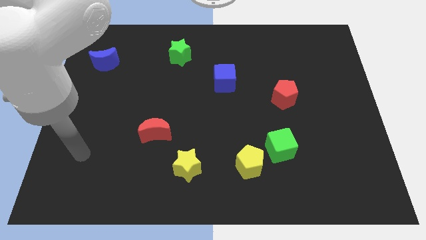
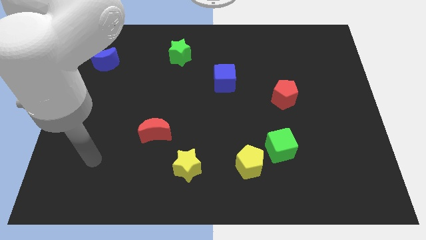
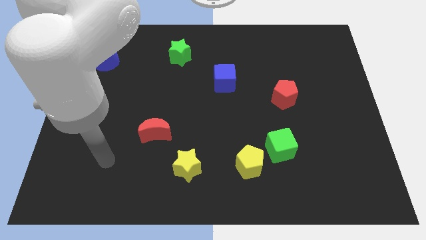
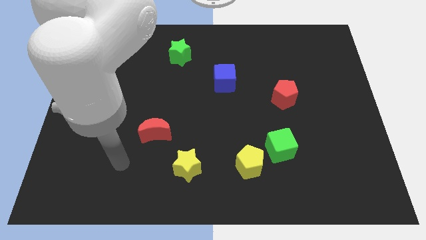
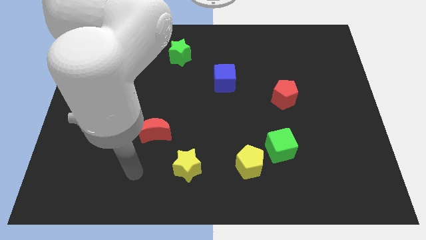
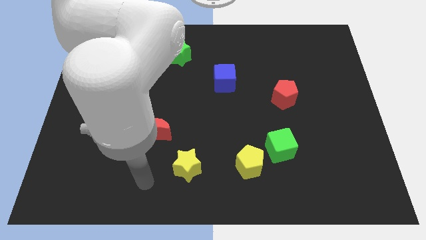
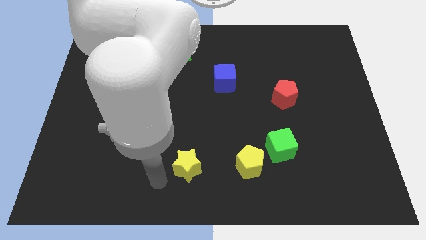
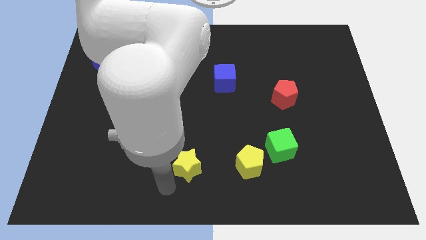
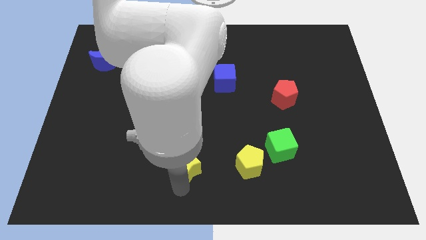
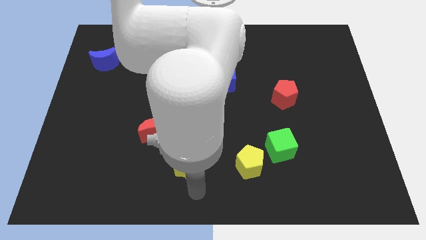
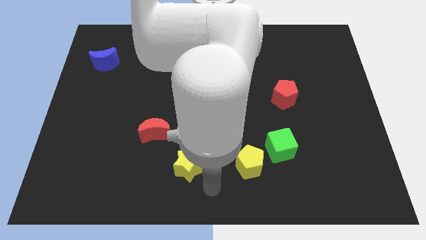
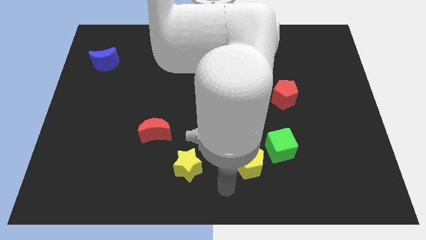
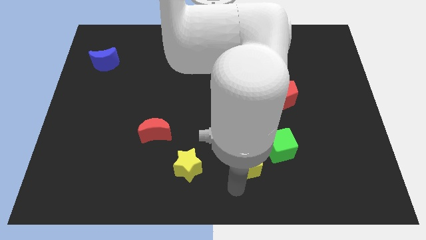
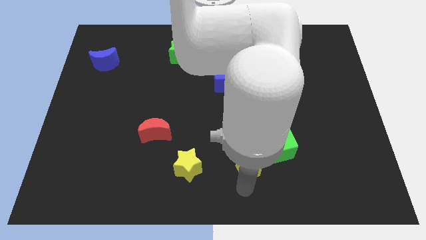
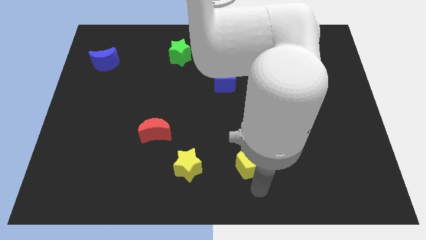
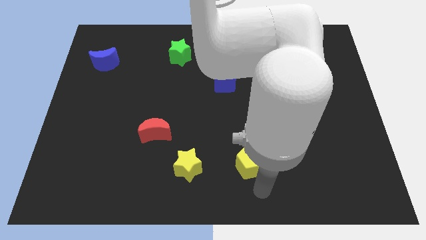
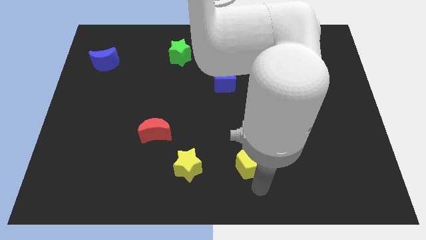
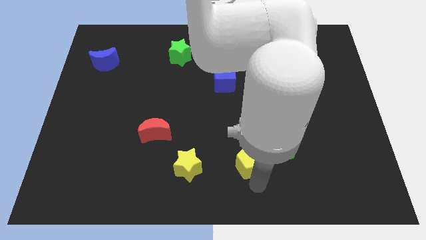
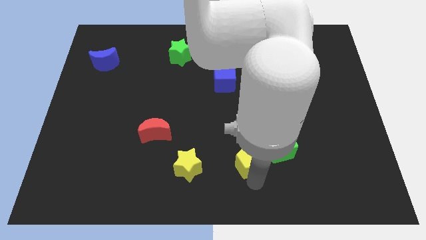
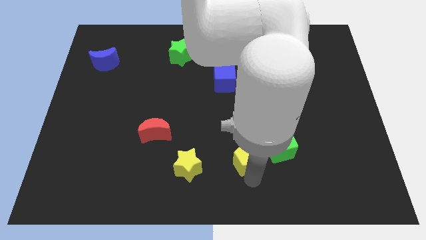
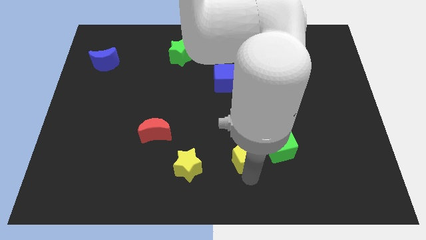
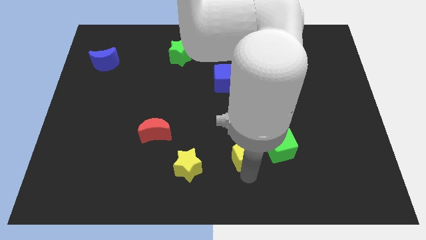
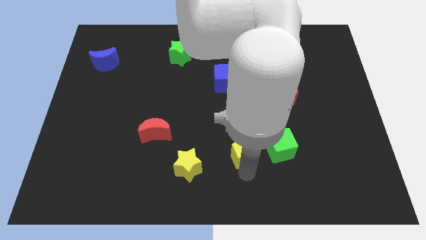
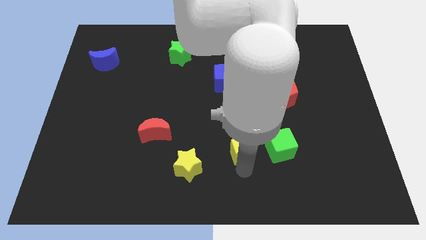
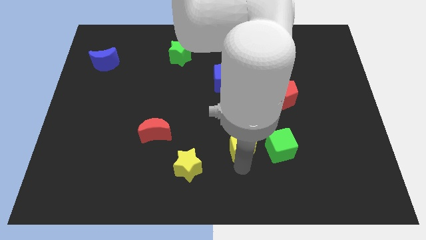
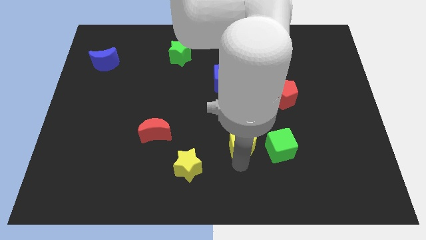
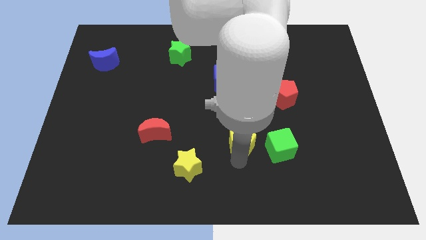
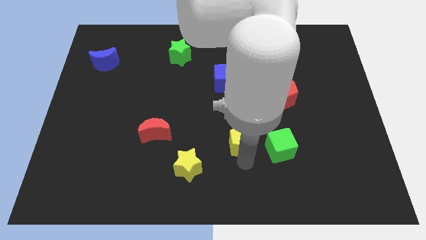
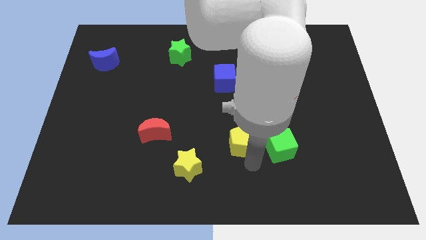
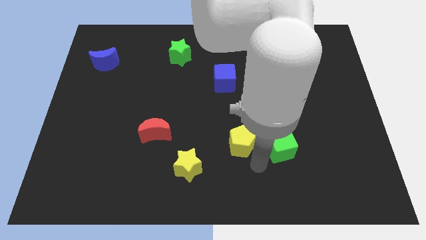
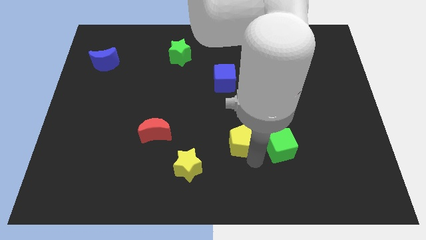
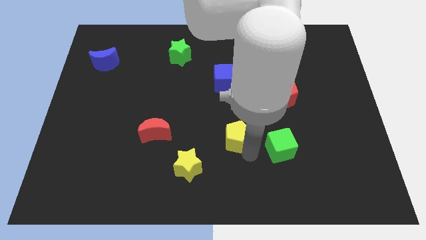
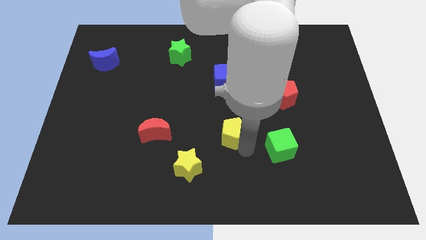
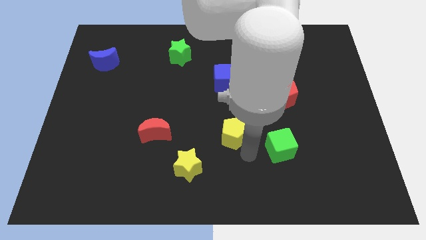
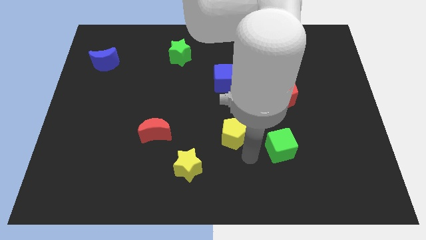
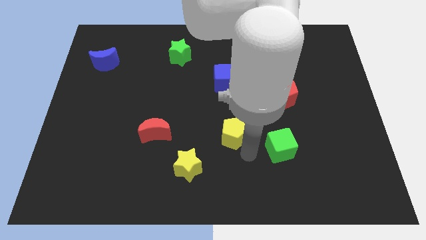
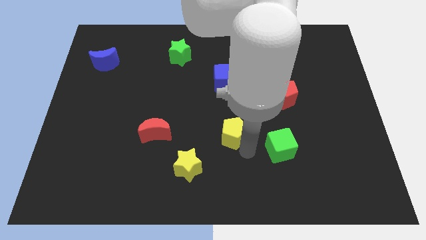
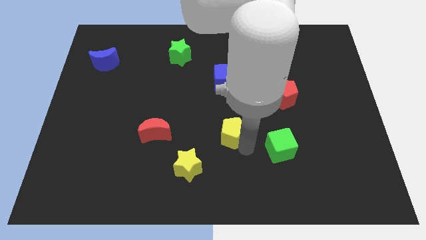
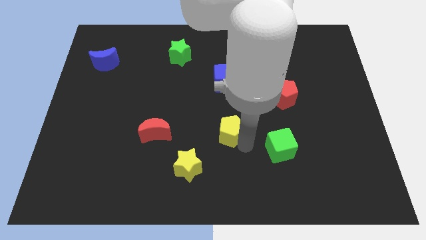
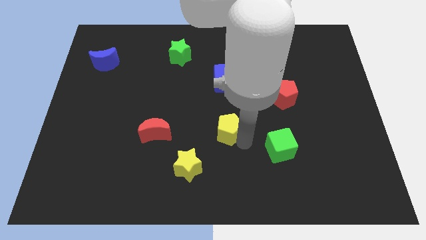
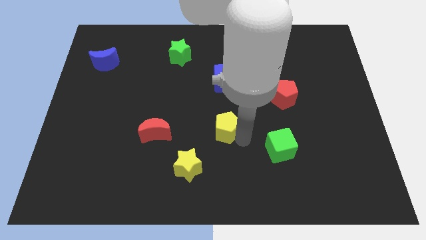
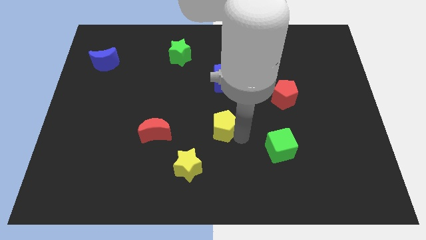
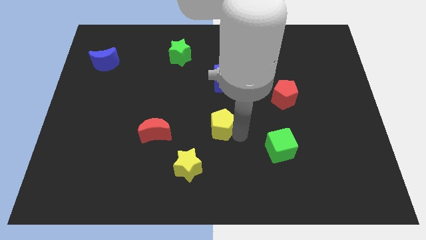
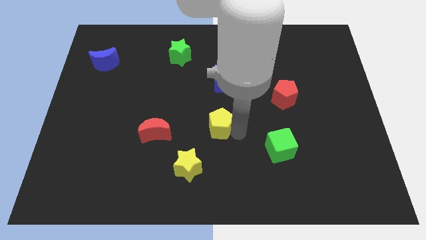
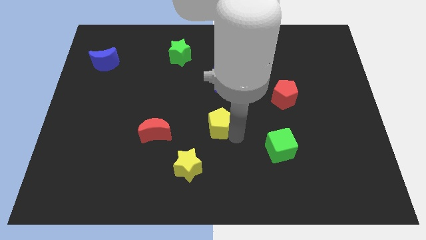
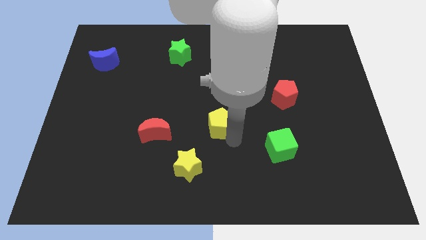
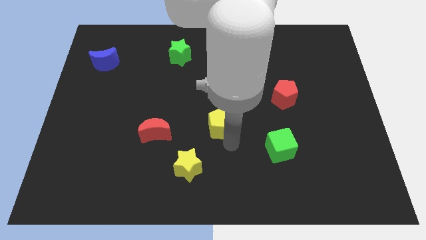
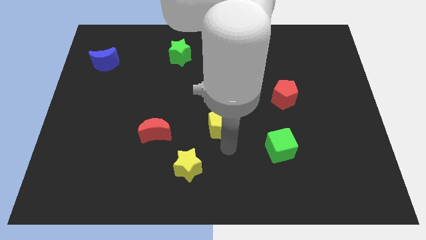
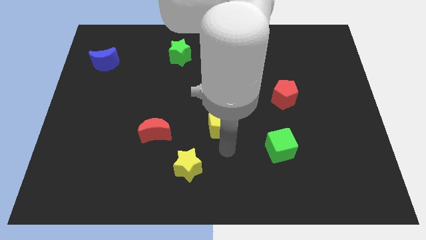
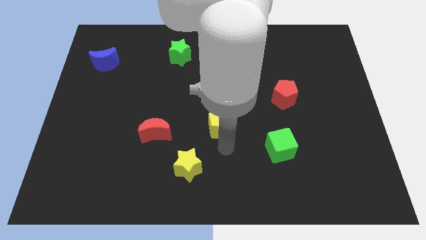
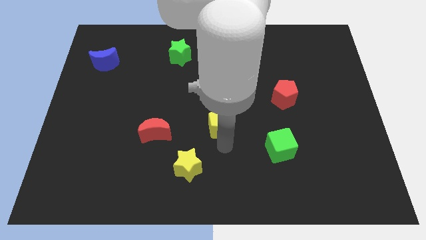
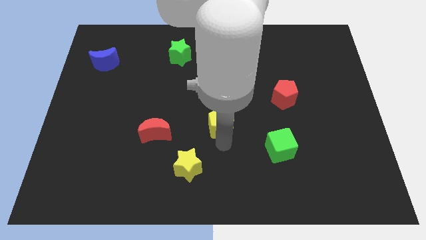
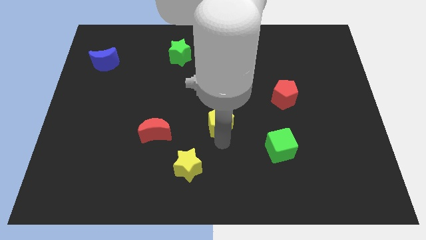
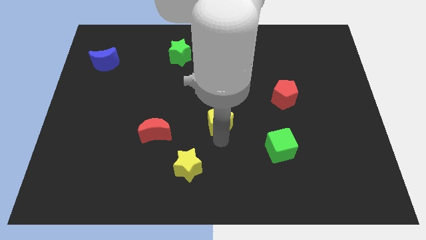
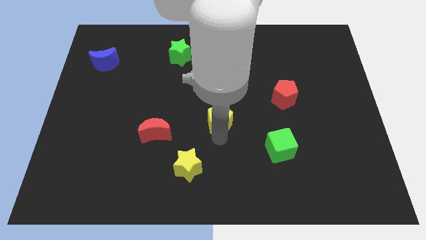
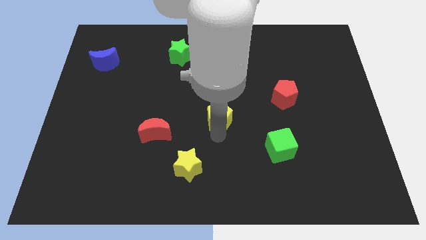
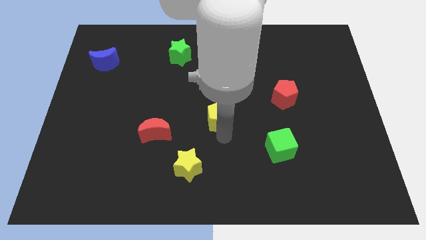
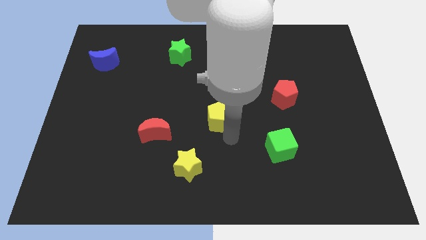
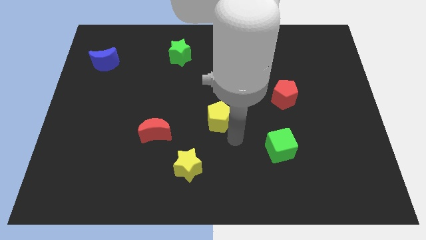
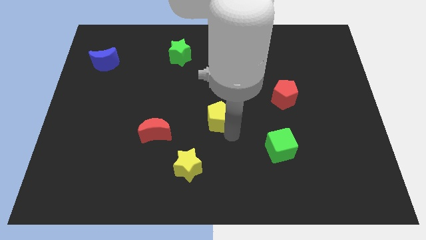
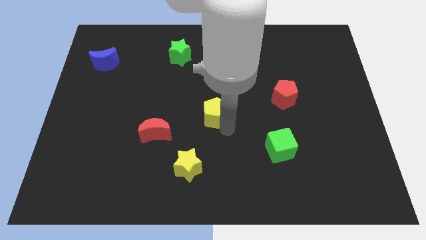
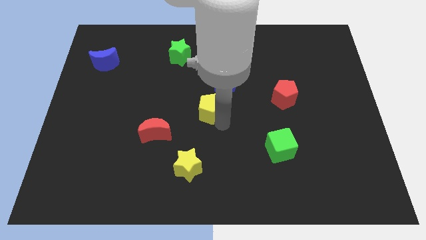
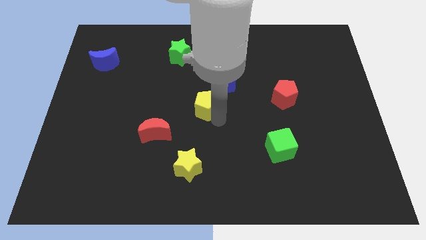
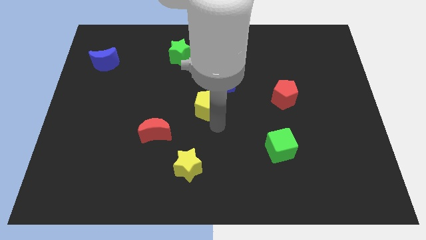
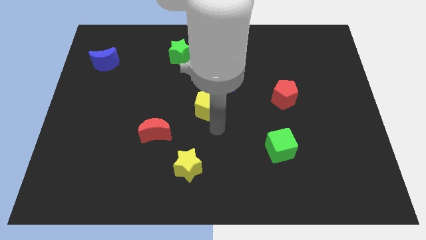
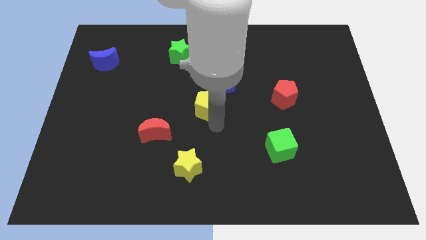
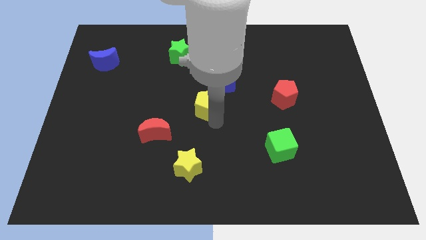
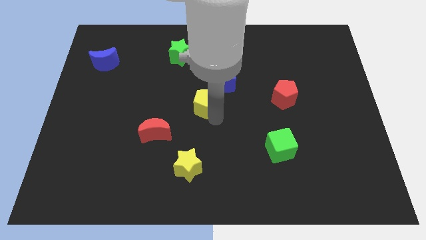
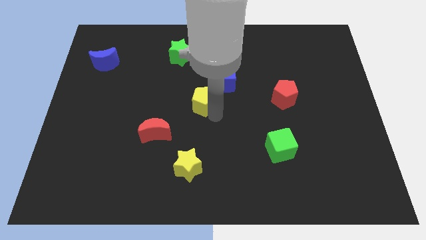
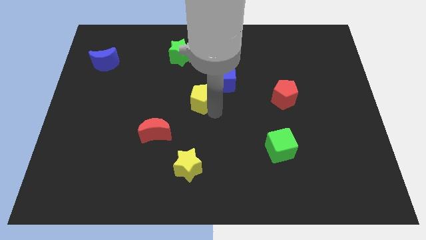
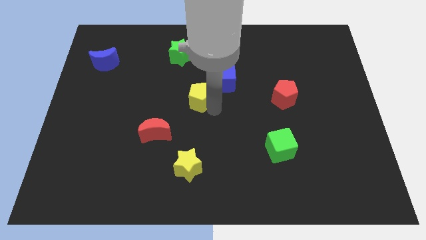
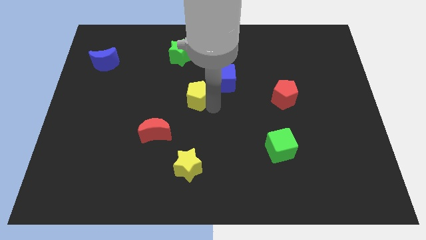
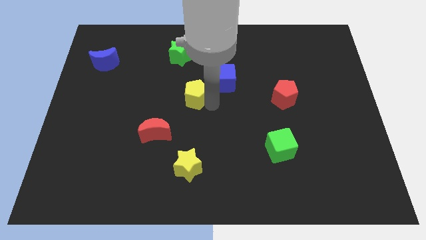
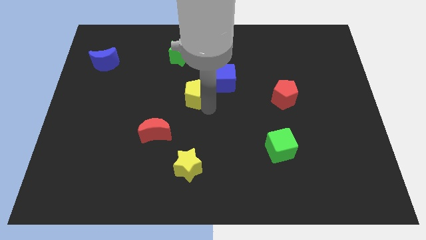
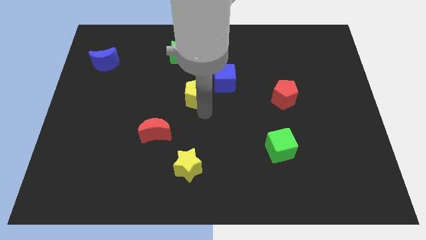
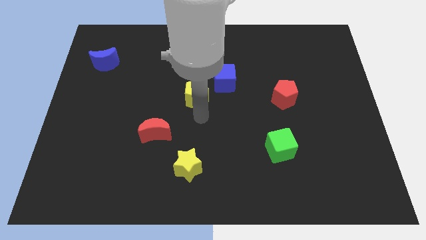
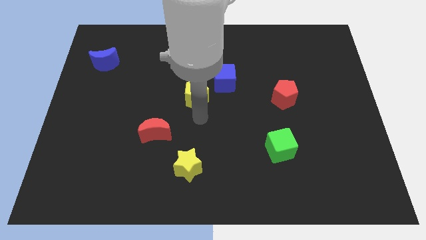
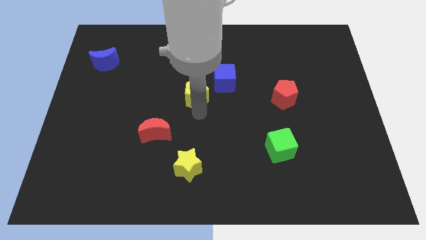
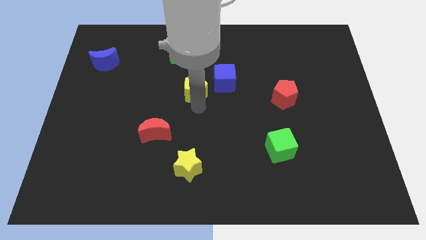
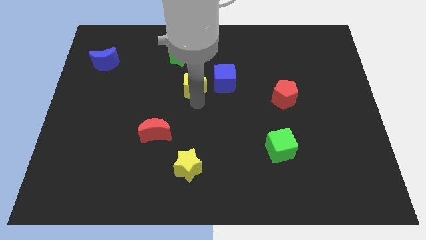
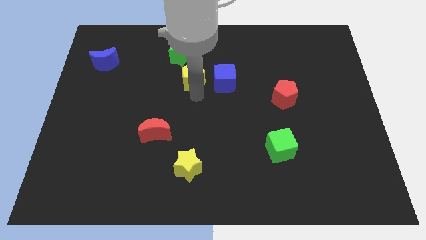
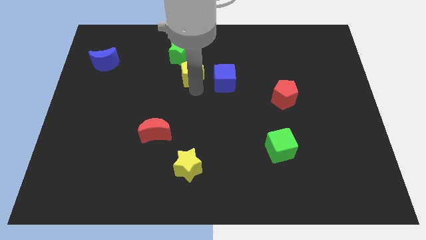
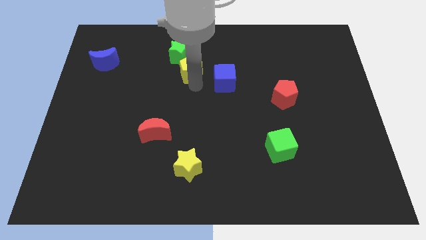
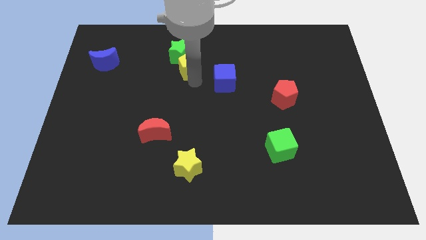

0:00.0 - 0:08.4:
put the yellow pentagon close to the green star
